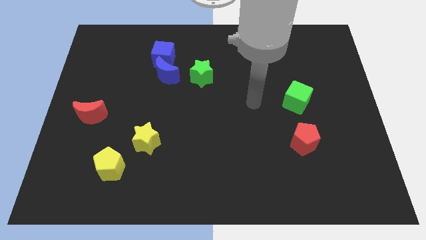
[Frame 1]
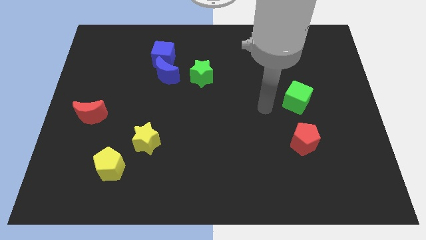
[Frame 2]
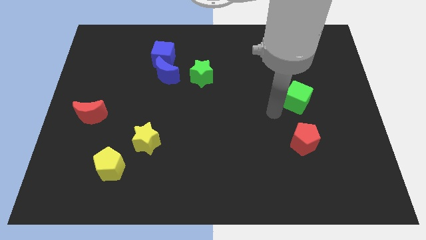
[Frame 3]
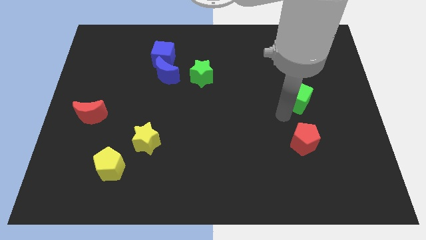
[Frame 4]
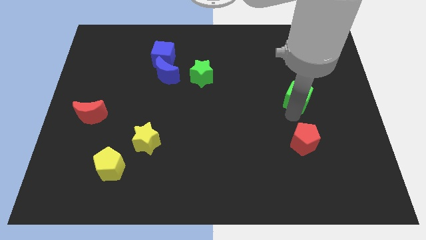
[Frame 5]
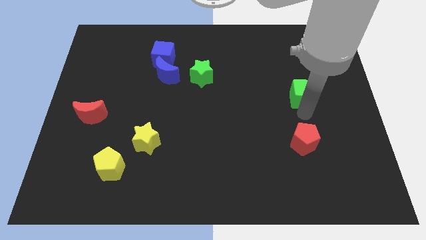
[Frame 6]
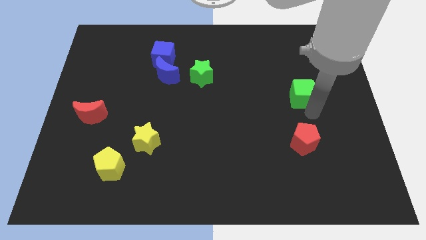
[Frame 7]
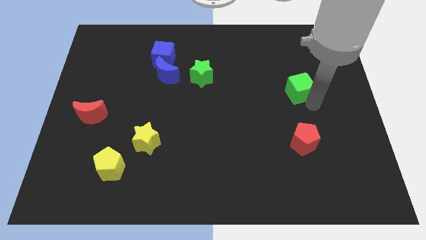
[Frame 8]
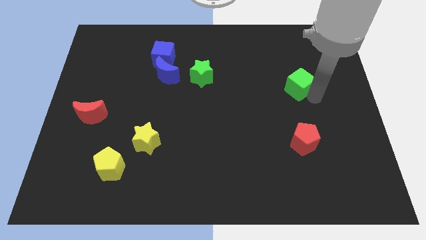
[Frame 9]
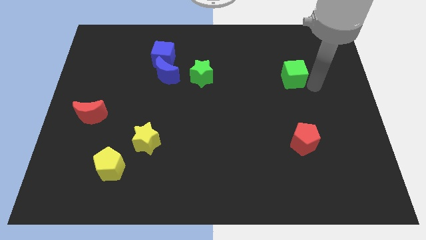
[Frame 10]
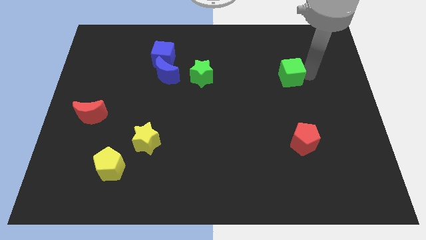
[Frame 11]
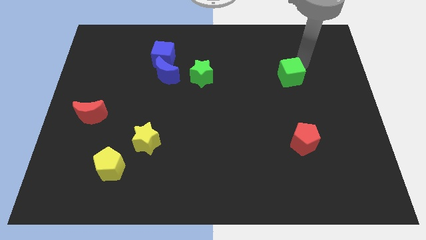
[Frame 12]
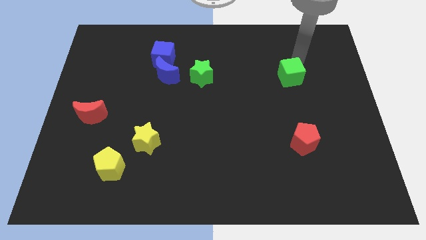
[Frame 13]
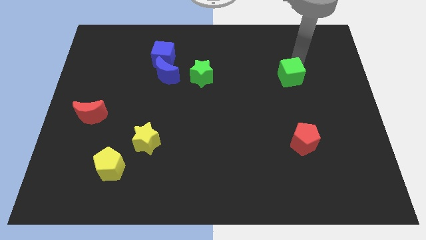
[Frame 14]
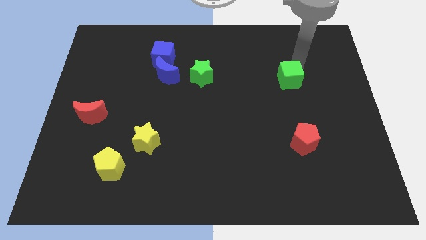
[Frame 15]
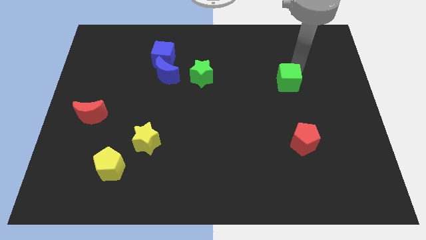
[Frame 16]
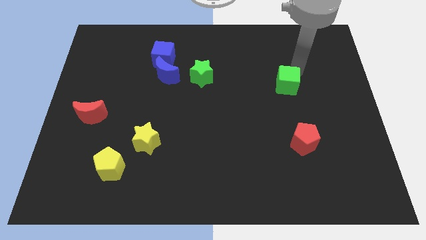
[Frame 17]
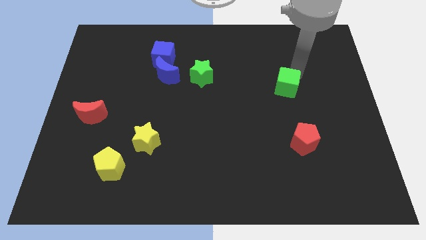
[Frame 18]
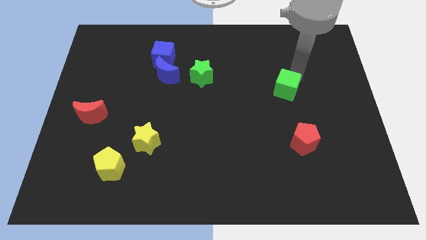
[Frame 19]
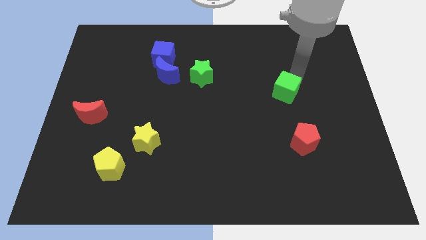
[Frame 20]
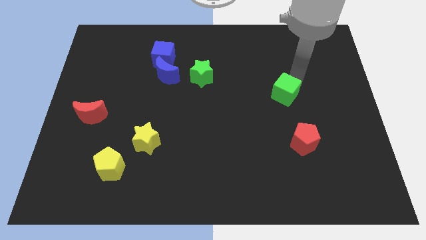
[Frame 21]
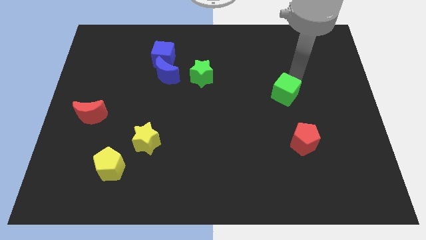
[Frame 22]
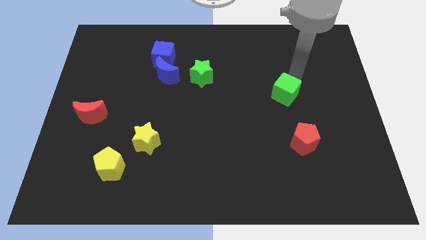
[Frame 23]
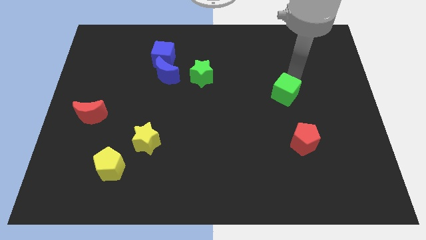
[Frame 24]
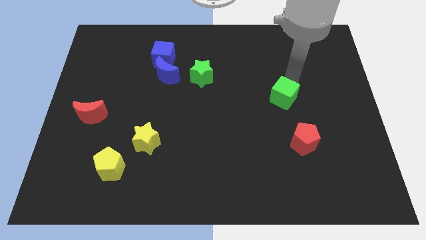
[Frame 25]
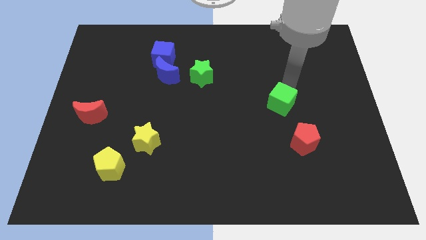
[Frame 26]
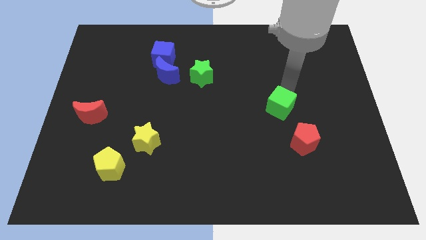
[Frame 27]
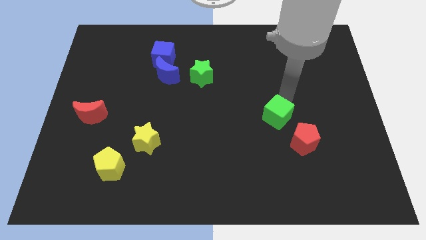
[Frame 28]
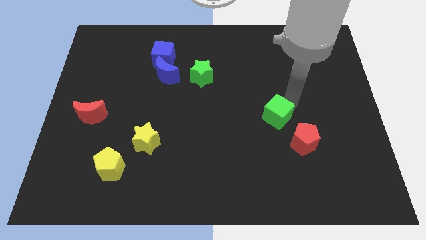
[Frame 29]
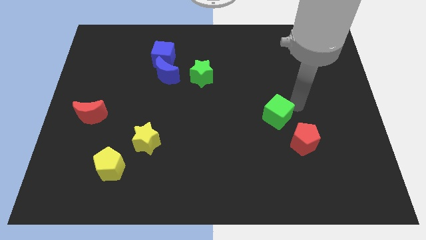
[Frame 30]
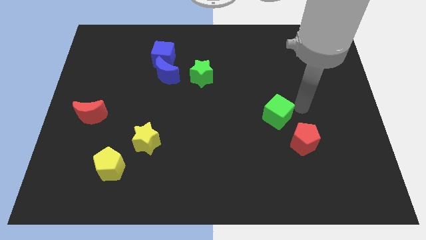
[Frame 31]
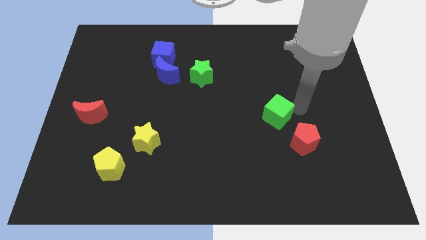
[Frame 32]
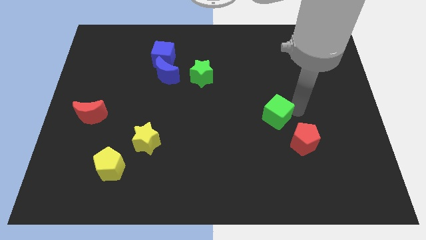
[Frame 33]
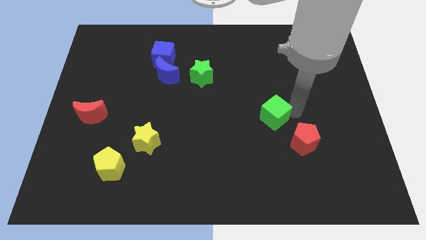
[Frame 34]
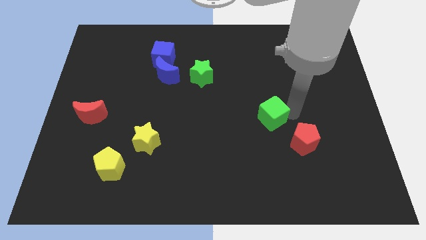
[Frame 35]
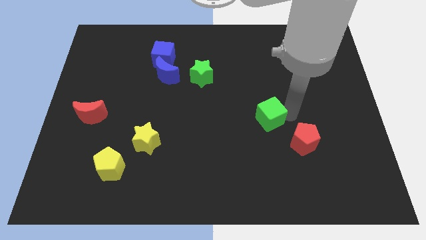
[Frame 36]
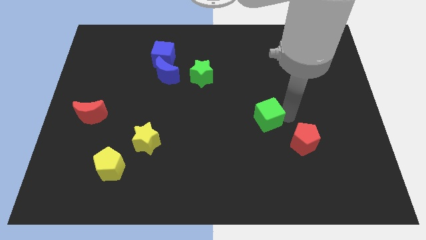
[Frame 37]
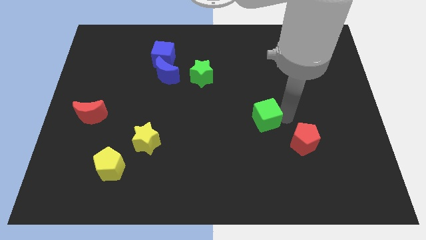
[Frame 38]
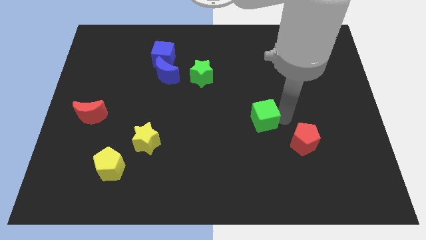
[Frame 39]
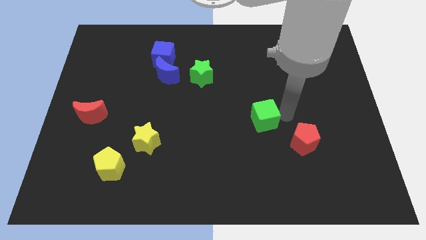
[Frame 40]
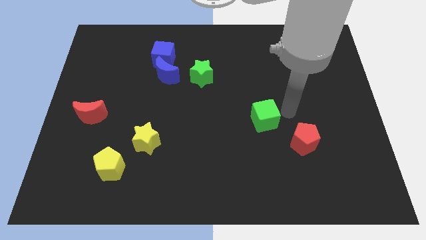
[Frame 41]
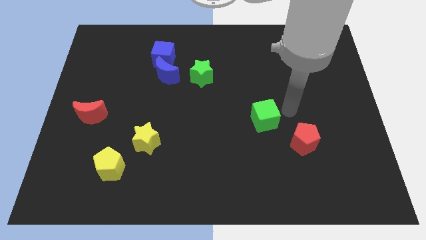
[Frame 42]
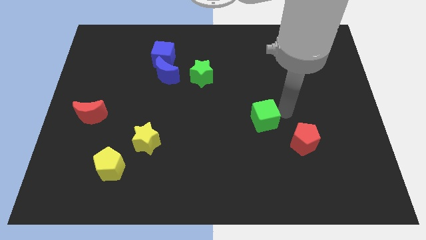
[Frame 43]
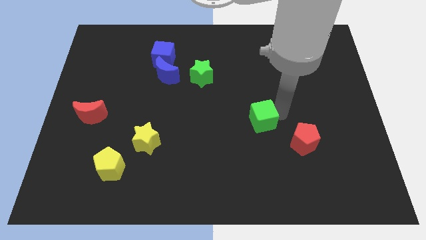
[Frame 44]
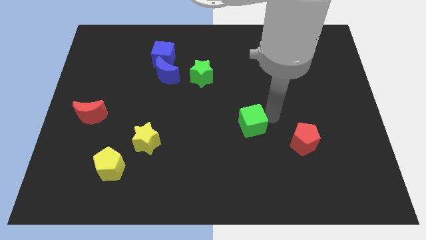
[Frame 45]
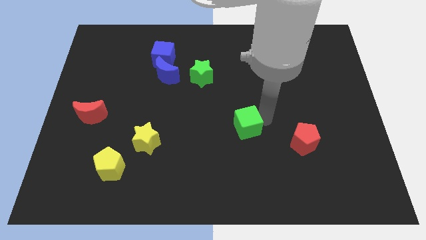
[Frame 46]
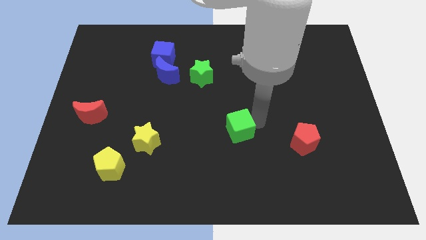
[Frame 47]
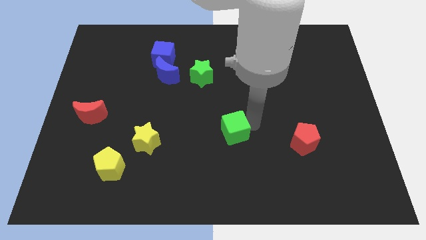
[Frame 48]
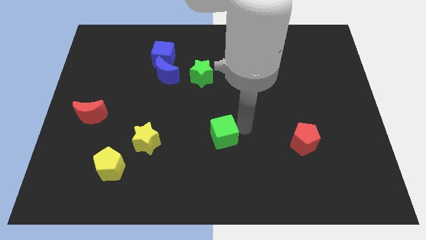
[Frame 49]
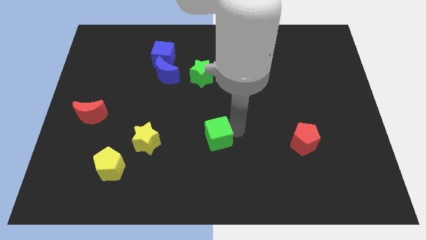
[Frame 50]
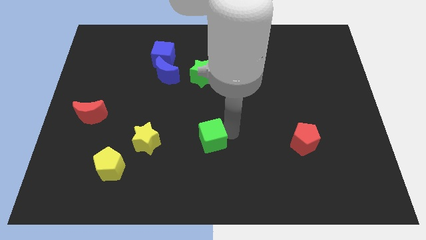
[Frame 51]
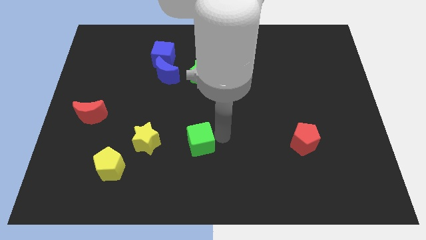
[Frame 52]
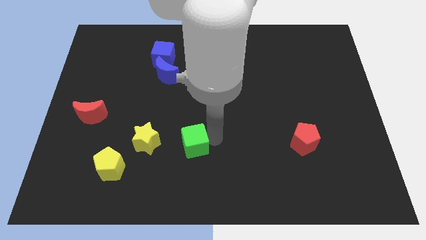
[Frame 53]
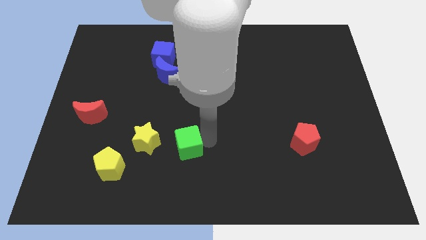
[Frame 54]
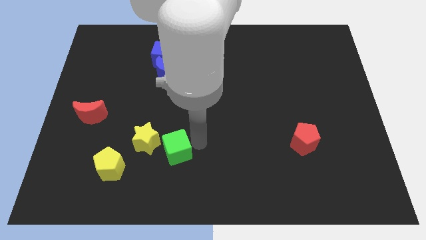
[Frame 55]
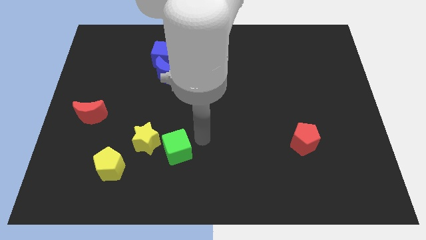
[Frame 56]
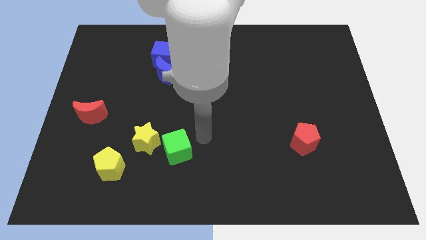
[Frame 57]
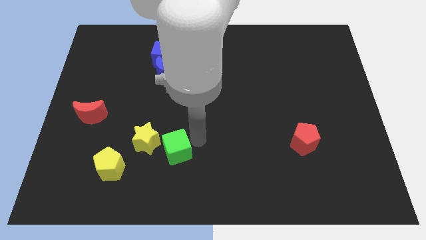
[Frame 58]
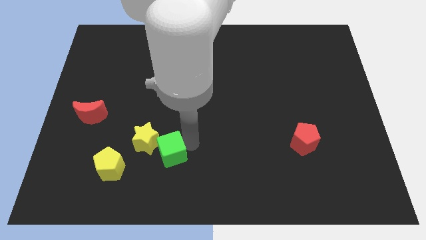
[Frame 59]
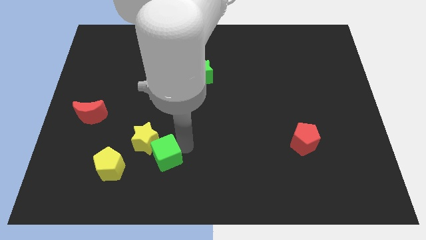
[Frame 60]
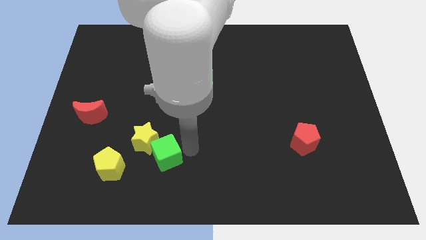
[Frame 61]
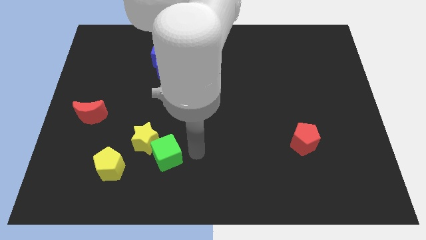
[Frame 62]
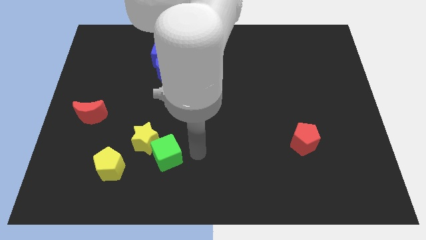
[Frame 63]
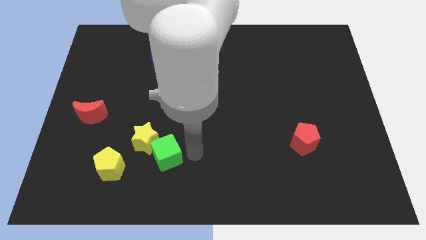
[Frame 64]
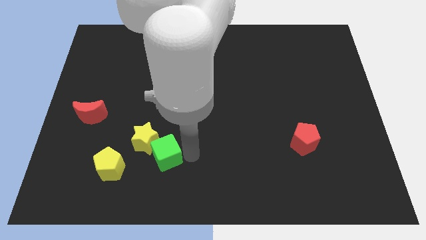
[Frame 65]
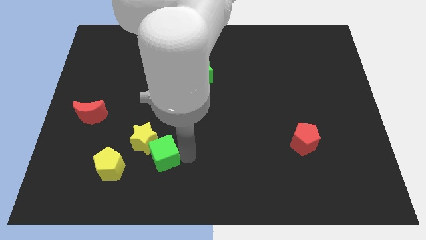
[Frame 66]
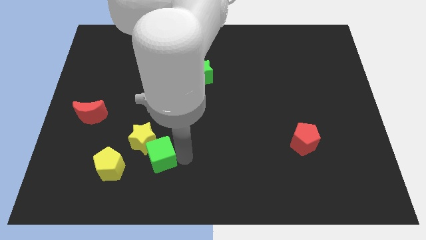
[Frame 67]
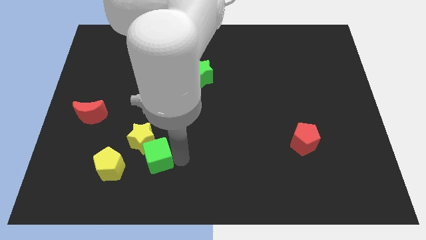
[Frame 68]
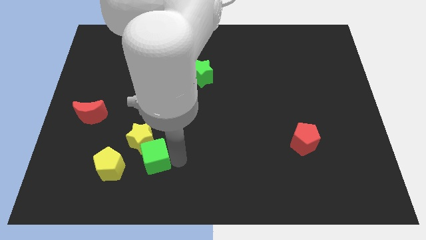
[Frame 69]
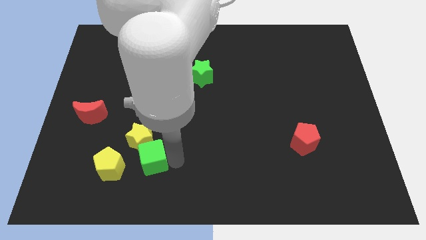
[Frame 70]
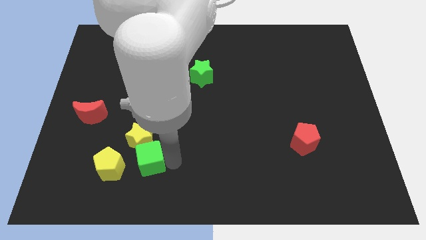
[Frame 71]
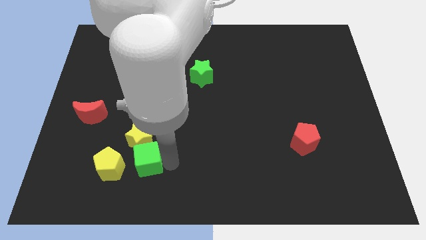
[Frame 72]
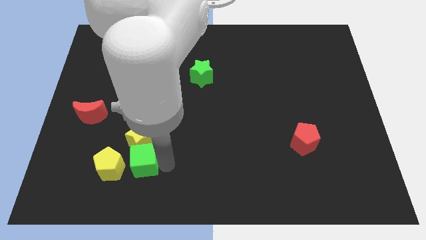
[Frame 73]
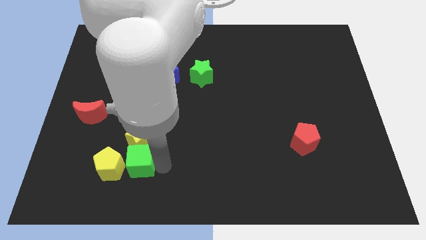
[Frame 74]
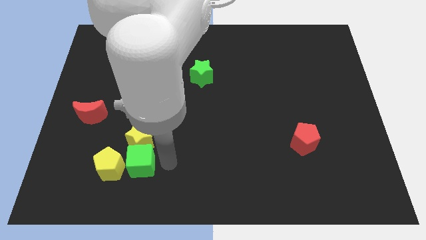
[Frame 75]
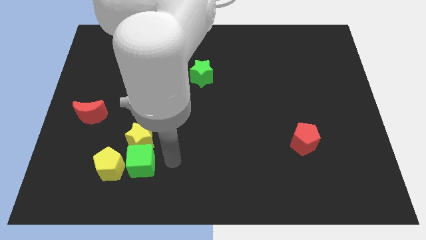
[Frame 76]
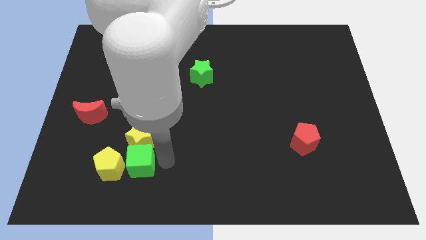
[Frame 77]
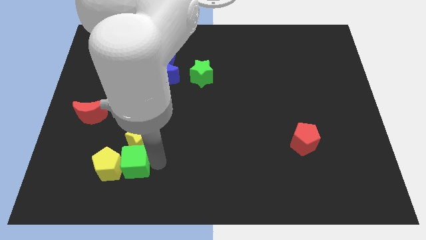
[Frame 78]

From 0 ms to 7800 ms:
slide the green cube towards the yellow pentagon
